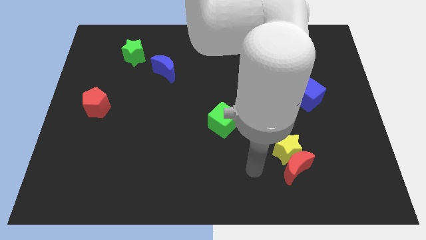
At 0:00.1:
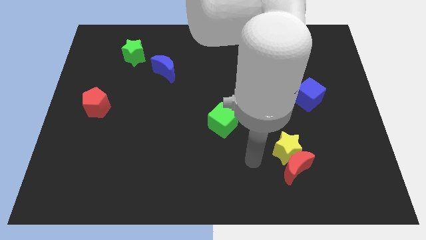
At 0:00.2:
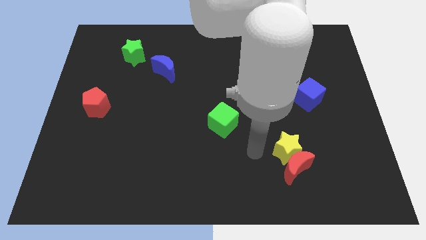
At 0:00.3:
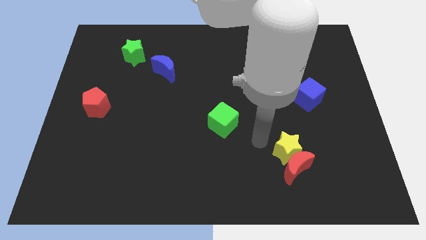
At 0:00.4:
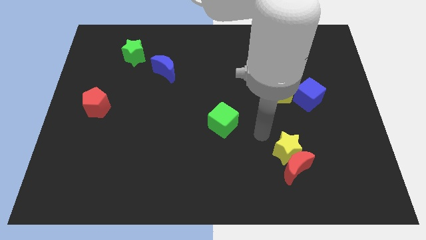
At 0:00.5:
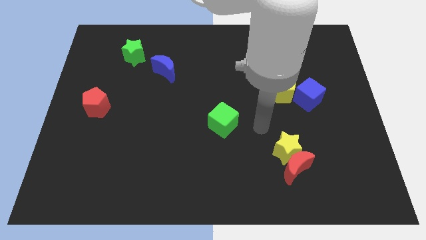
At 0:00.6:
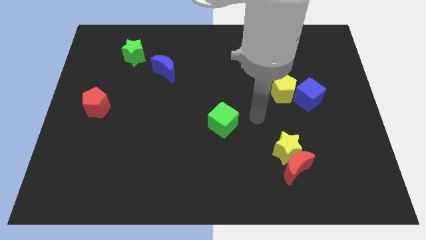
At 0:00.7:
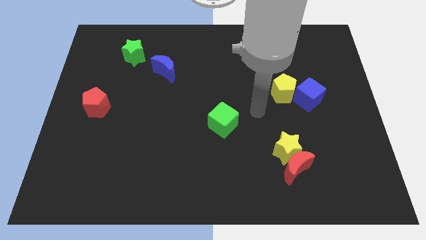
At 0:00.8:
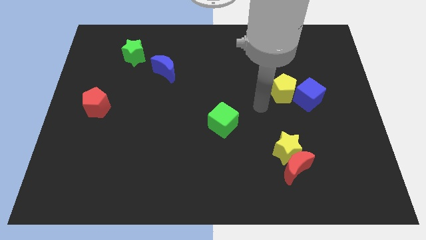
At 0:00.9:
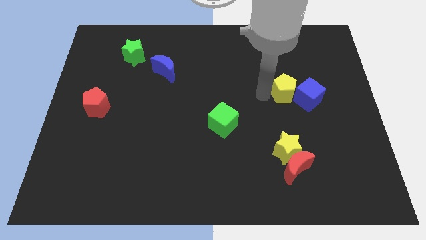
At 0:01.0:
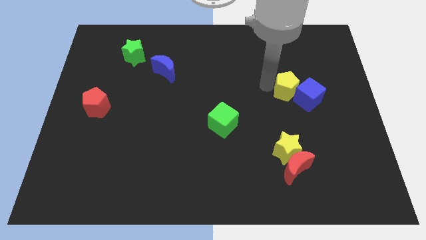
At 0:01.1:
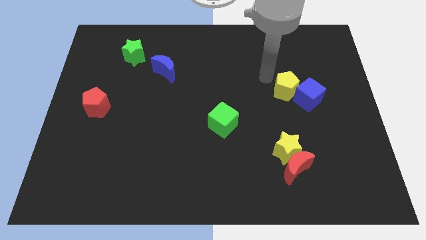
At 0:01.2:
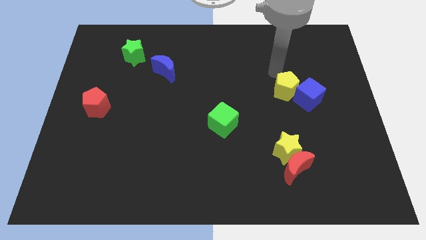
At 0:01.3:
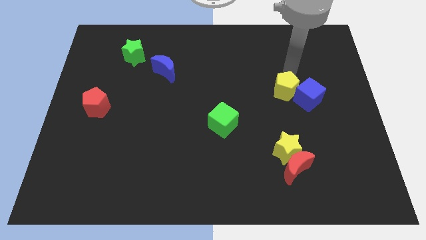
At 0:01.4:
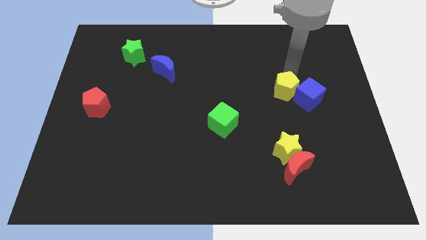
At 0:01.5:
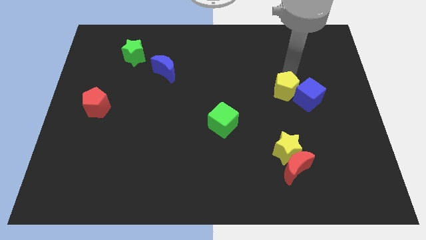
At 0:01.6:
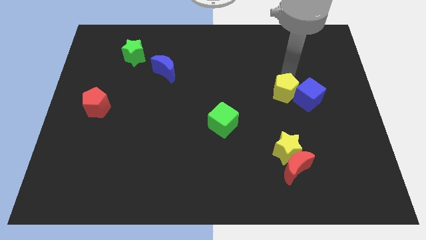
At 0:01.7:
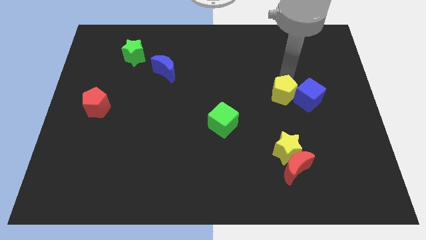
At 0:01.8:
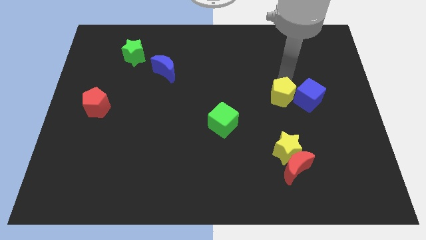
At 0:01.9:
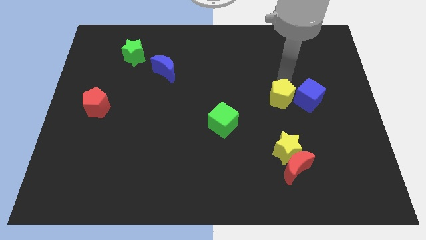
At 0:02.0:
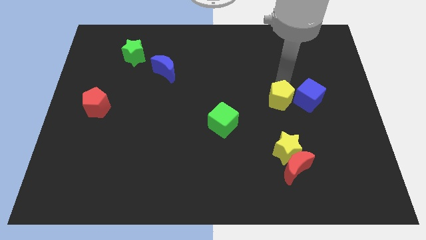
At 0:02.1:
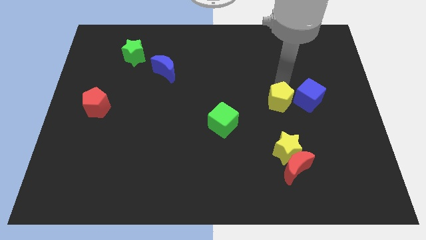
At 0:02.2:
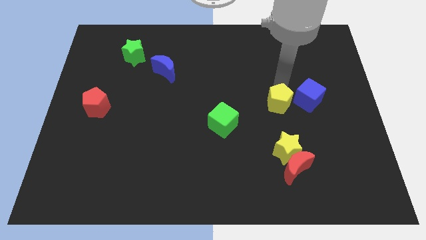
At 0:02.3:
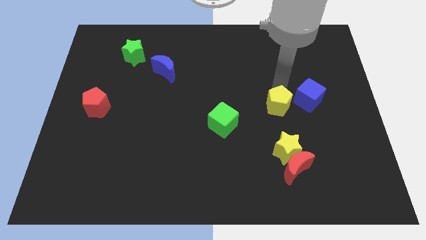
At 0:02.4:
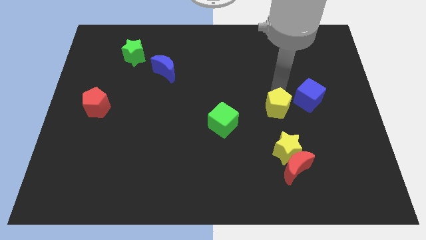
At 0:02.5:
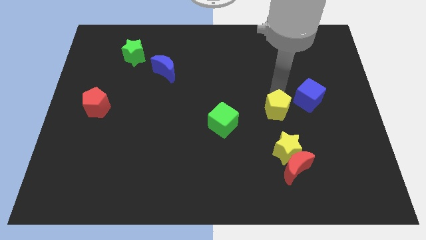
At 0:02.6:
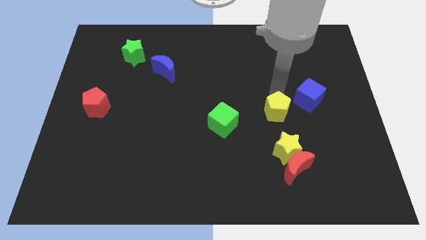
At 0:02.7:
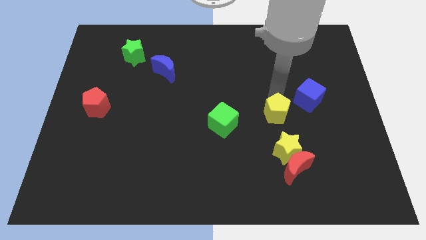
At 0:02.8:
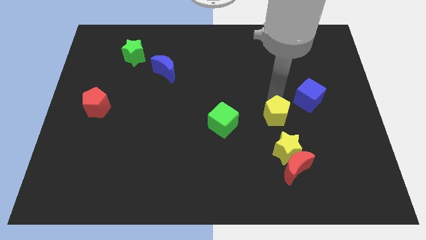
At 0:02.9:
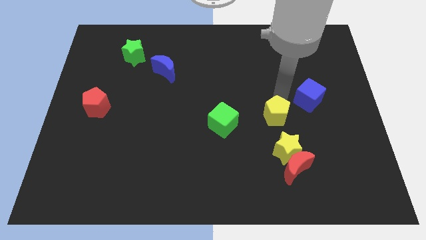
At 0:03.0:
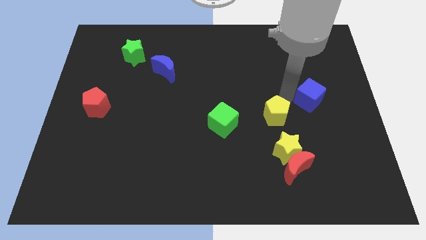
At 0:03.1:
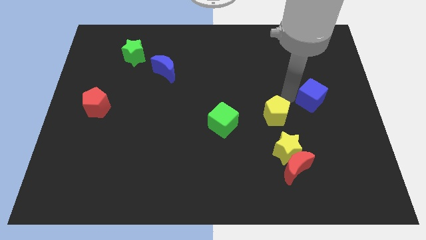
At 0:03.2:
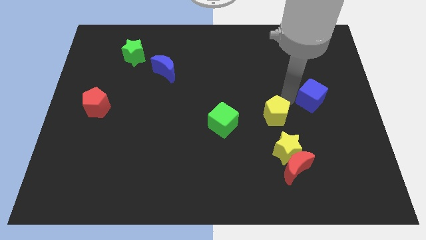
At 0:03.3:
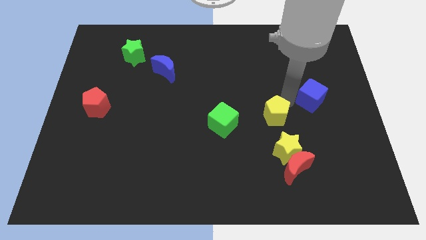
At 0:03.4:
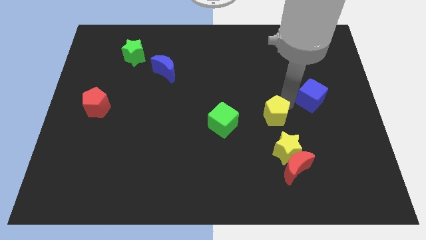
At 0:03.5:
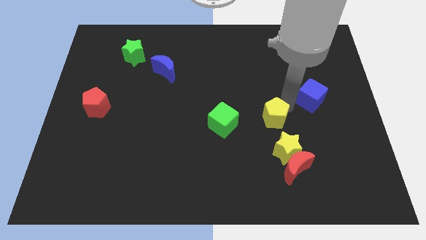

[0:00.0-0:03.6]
slide the yellow pentagon downwards and to the left diagonally a bit

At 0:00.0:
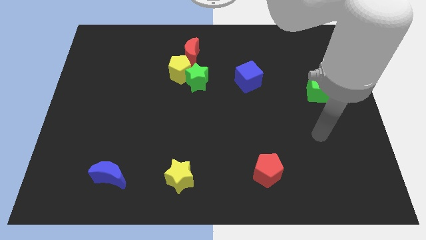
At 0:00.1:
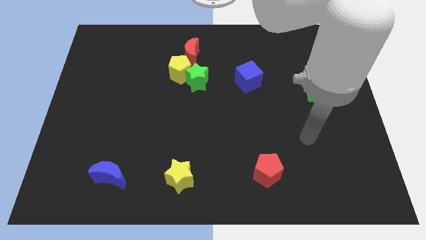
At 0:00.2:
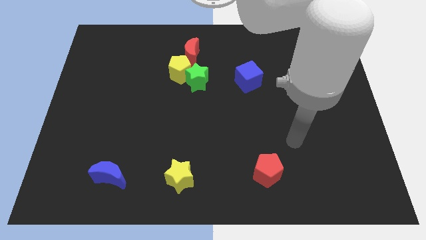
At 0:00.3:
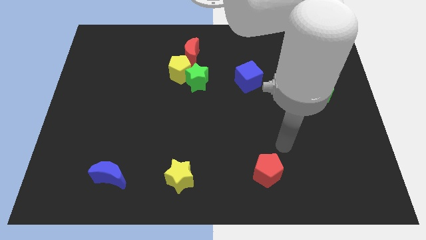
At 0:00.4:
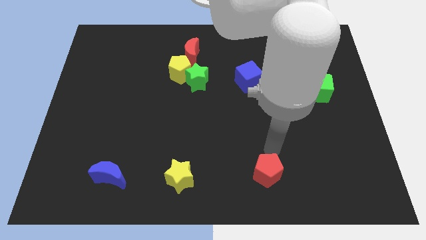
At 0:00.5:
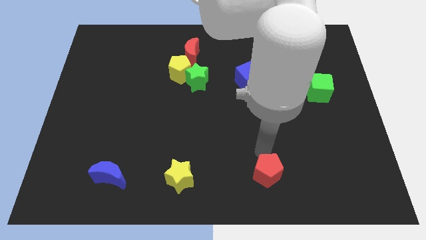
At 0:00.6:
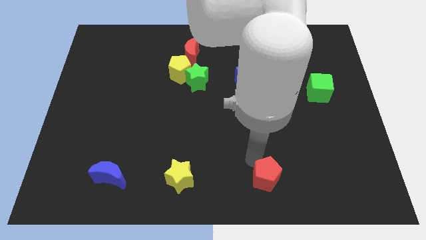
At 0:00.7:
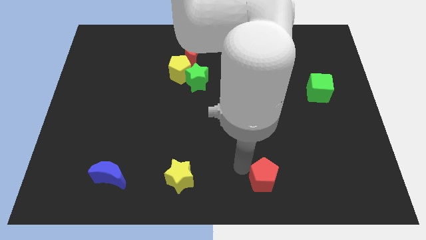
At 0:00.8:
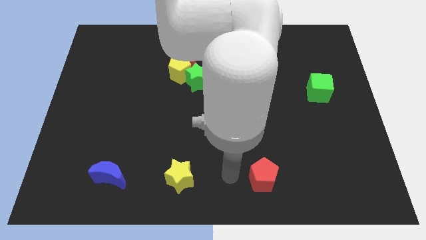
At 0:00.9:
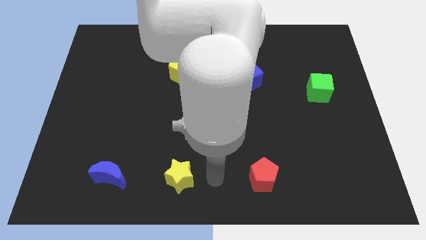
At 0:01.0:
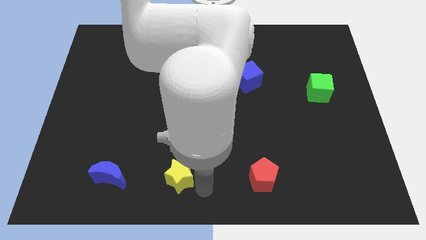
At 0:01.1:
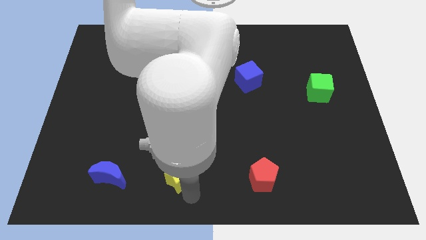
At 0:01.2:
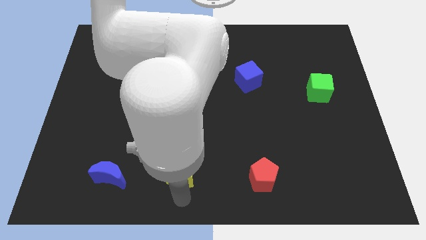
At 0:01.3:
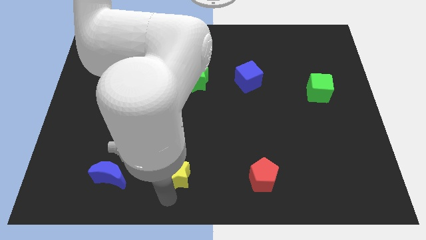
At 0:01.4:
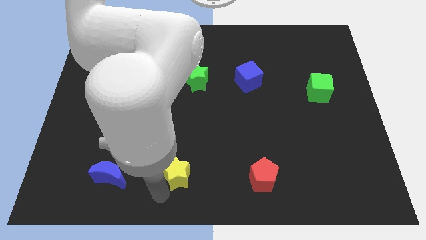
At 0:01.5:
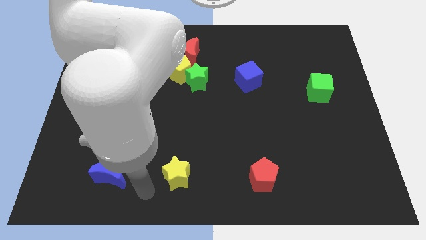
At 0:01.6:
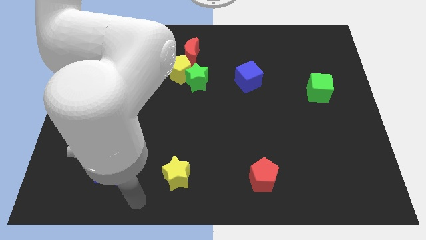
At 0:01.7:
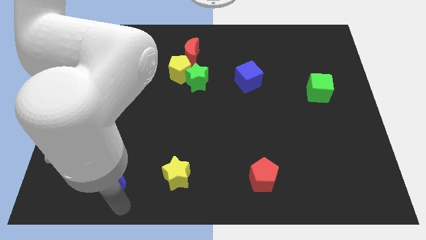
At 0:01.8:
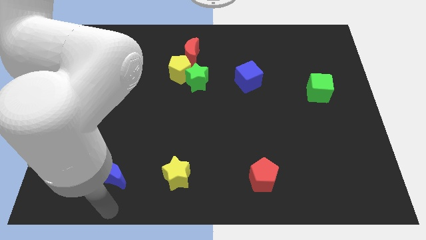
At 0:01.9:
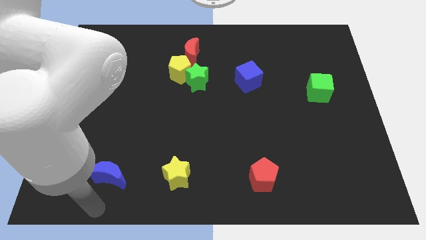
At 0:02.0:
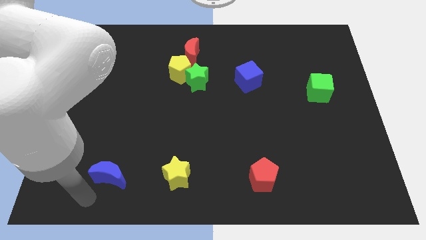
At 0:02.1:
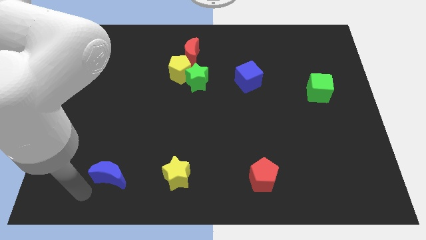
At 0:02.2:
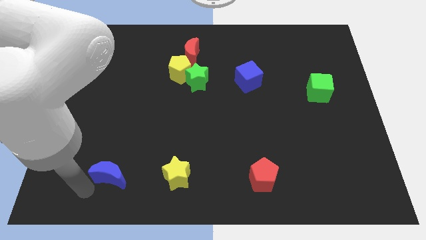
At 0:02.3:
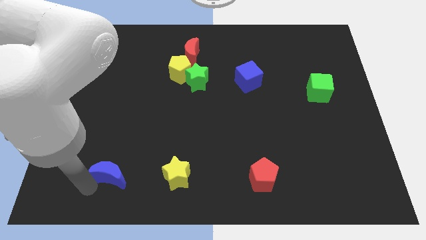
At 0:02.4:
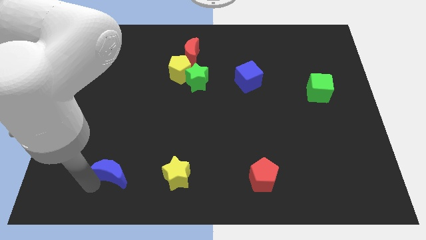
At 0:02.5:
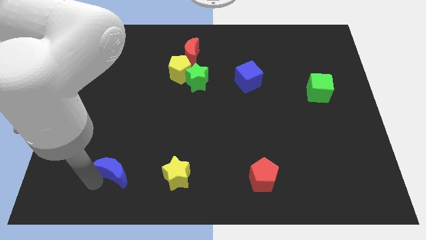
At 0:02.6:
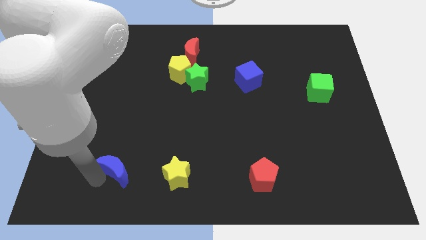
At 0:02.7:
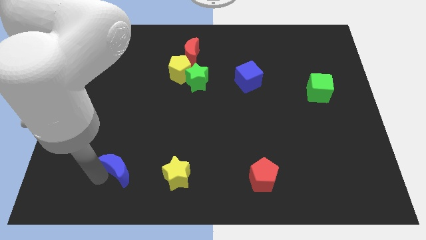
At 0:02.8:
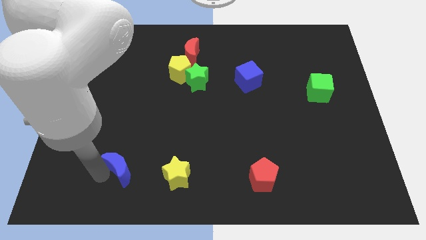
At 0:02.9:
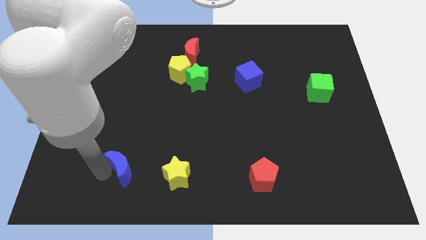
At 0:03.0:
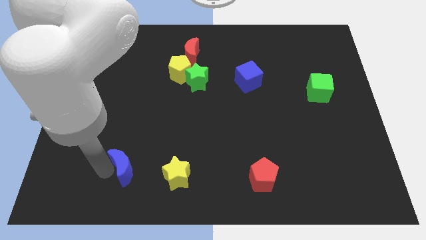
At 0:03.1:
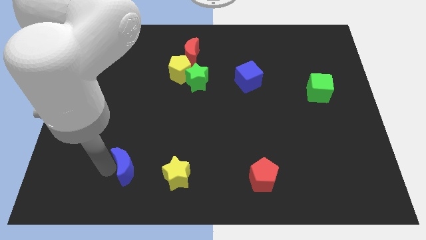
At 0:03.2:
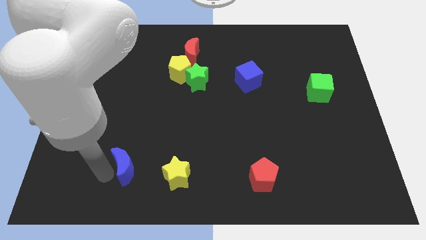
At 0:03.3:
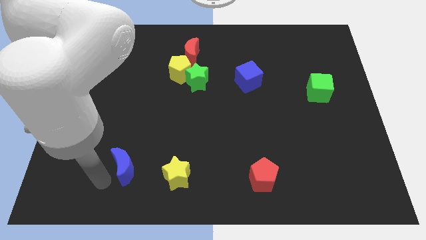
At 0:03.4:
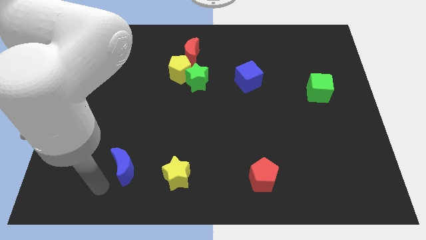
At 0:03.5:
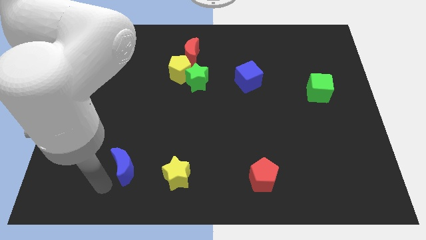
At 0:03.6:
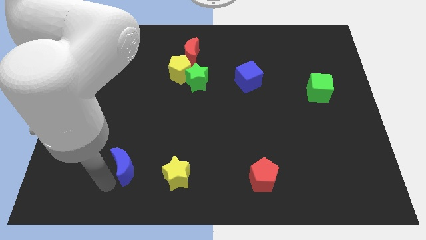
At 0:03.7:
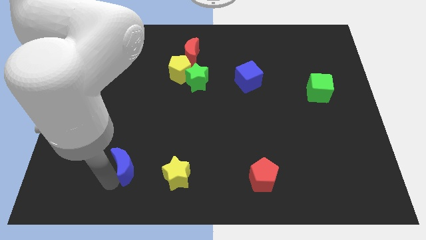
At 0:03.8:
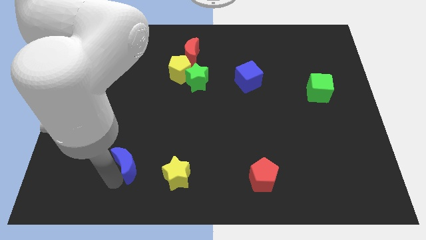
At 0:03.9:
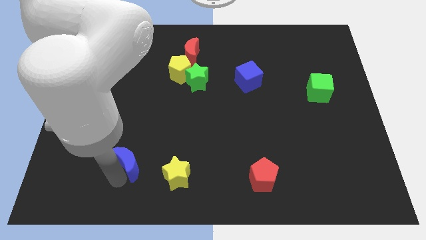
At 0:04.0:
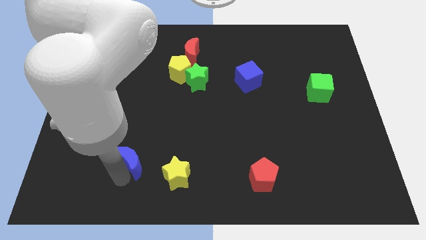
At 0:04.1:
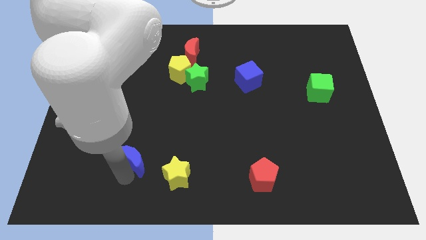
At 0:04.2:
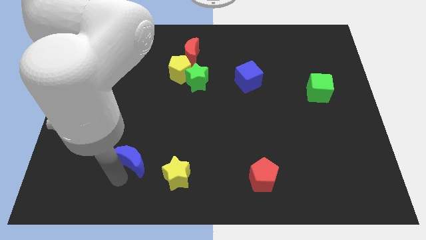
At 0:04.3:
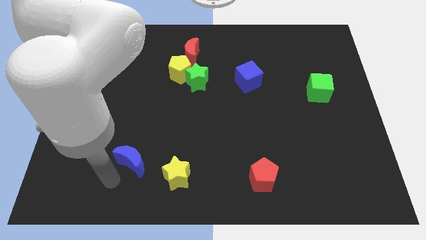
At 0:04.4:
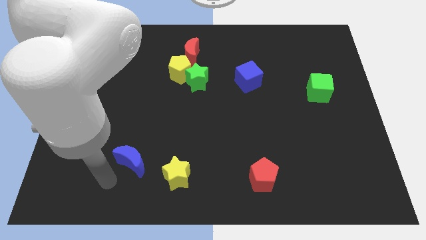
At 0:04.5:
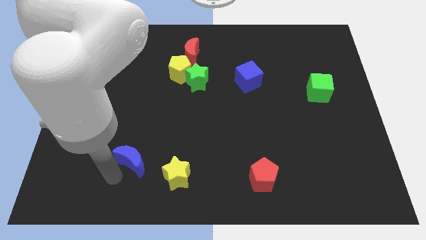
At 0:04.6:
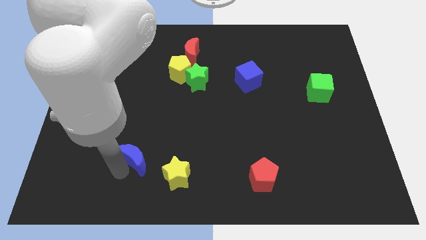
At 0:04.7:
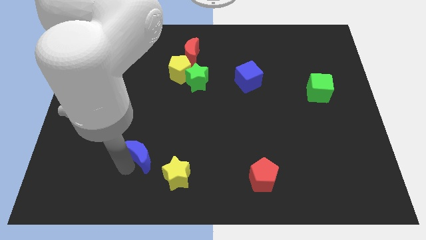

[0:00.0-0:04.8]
move the blue moon up and right diagonally a little
